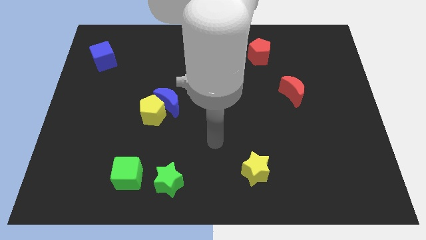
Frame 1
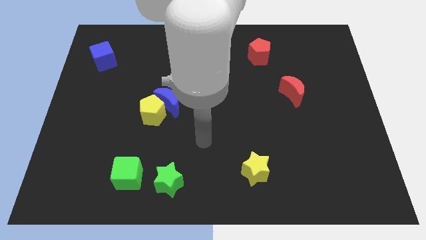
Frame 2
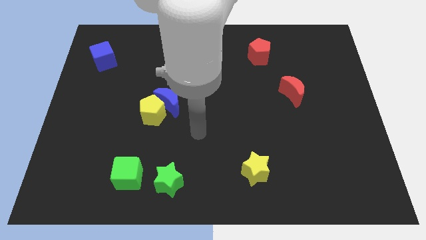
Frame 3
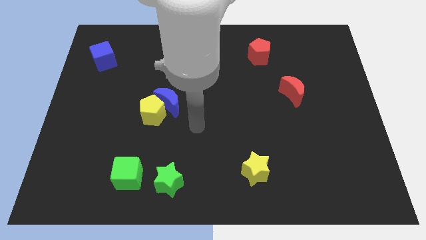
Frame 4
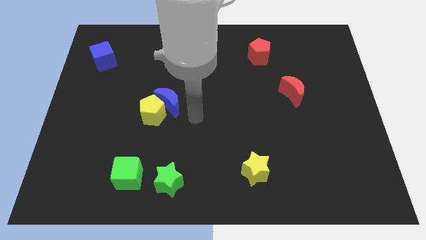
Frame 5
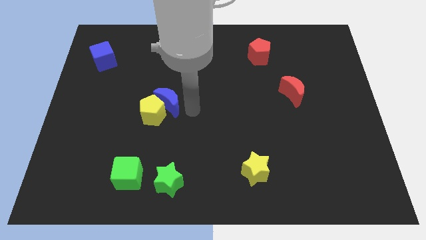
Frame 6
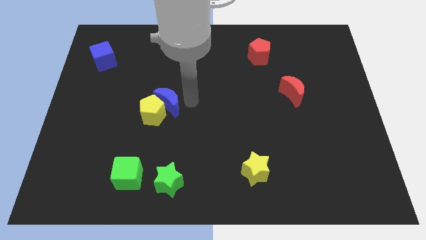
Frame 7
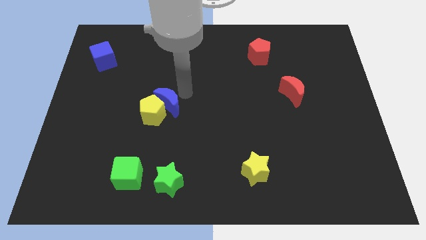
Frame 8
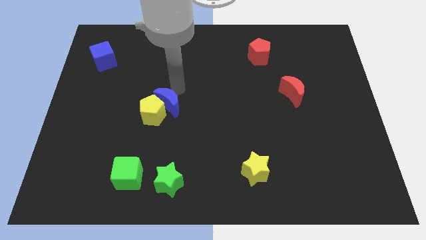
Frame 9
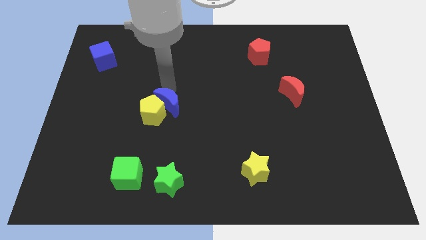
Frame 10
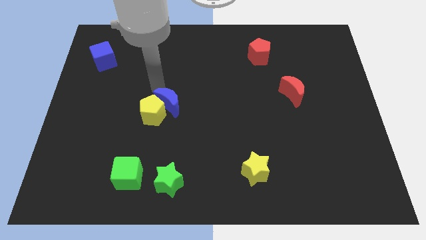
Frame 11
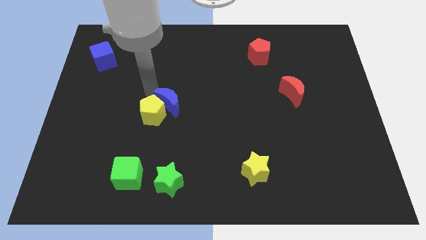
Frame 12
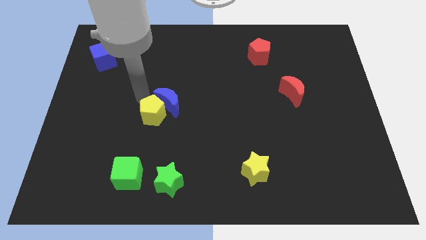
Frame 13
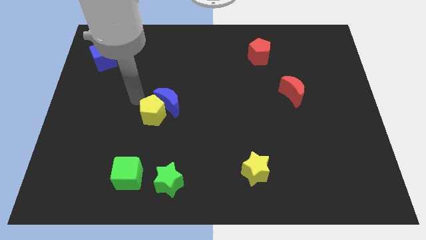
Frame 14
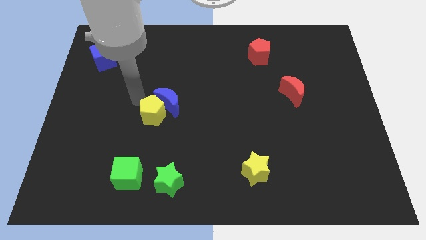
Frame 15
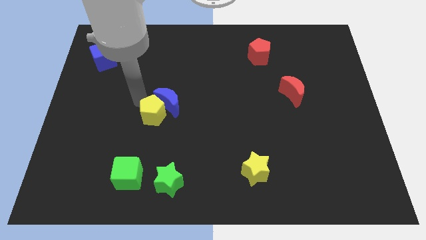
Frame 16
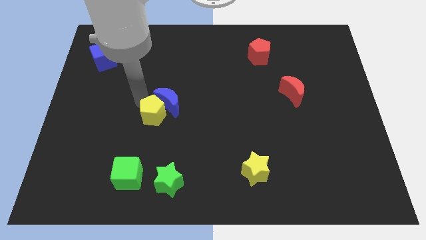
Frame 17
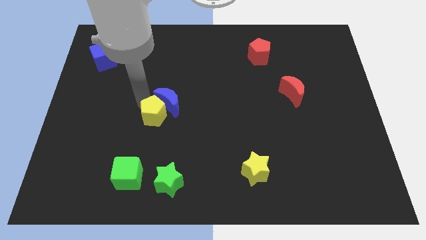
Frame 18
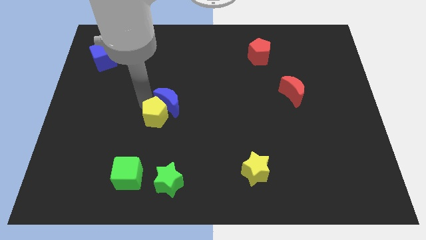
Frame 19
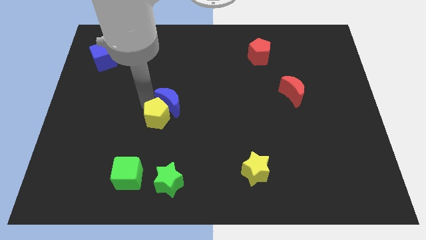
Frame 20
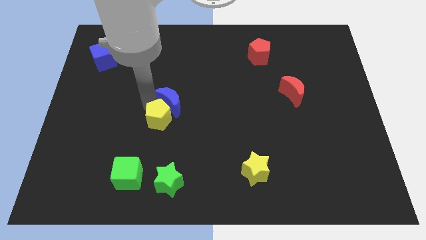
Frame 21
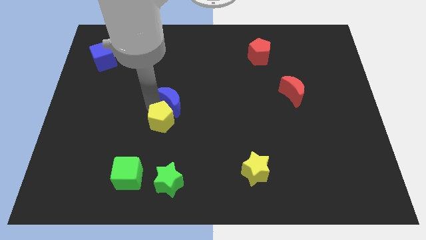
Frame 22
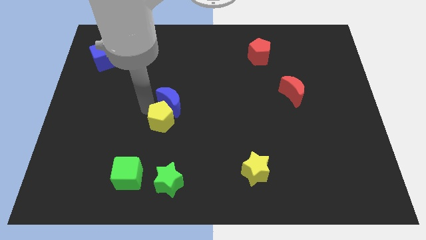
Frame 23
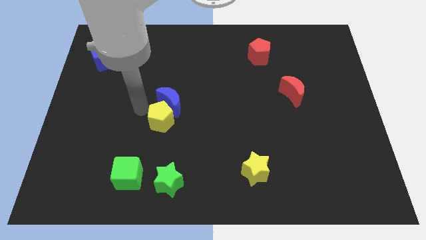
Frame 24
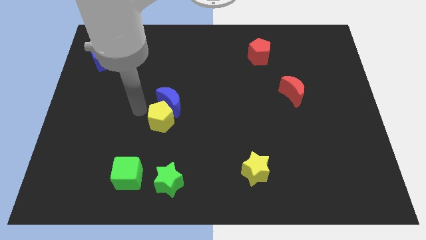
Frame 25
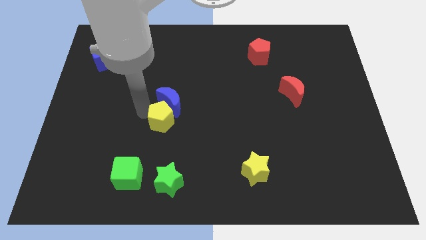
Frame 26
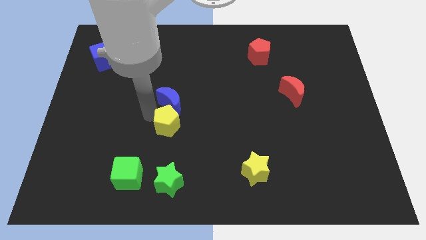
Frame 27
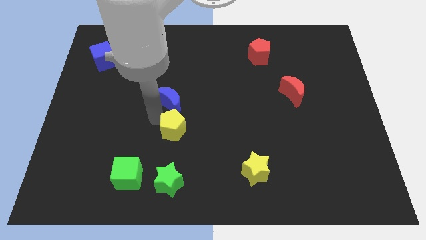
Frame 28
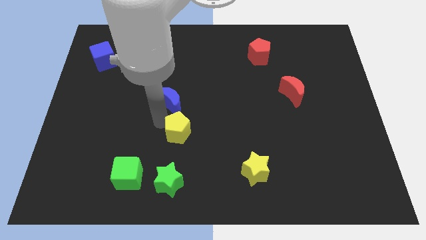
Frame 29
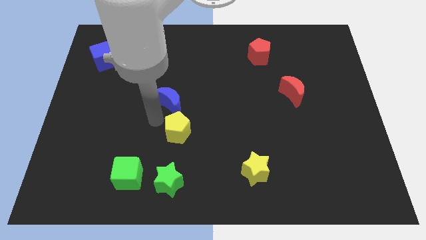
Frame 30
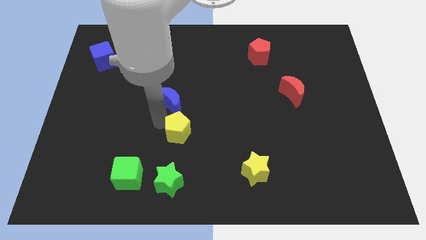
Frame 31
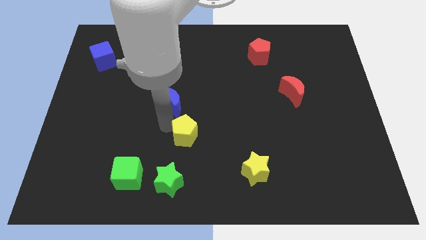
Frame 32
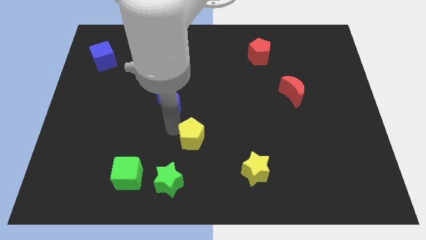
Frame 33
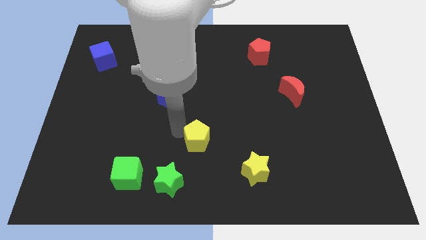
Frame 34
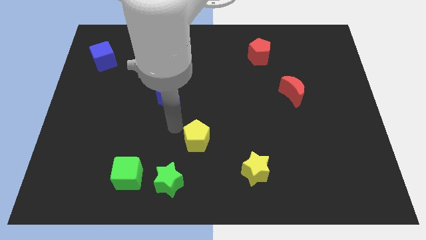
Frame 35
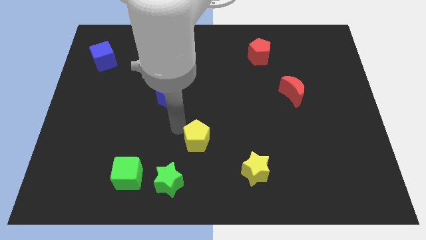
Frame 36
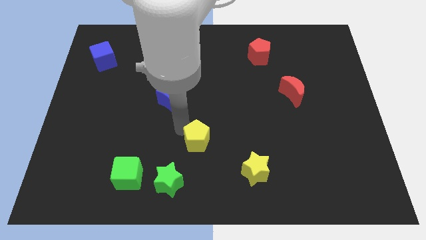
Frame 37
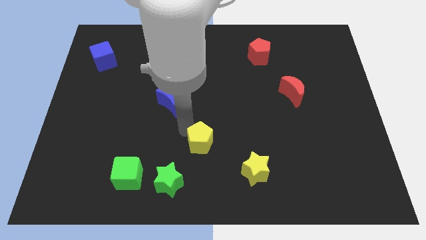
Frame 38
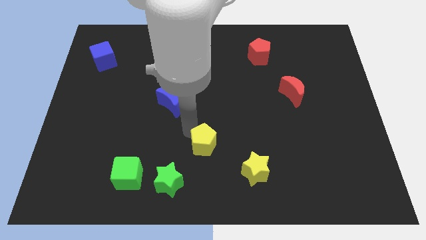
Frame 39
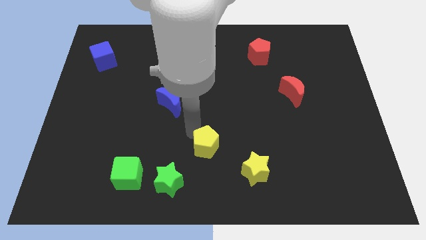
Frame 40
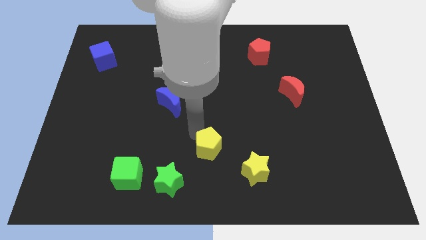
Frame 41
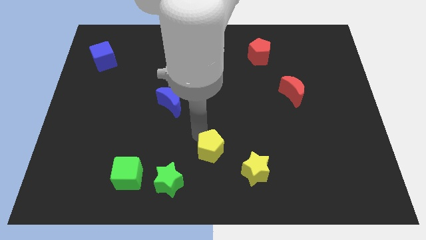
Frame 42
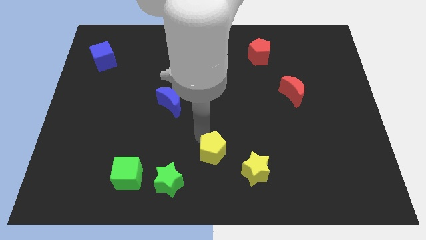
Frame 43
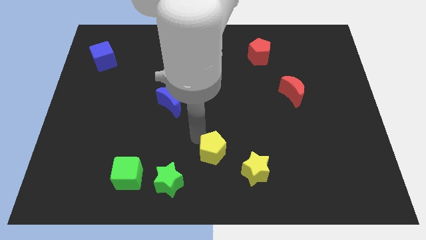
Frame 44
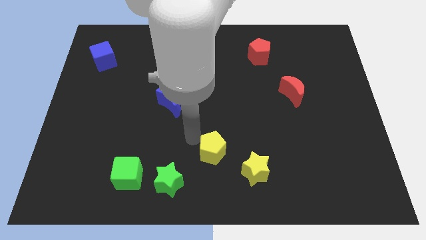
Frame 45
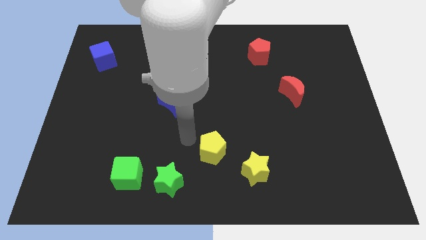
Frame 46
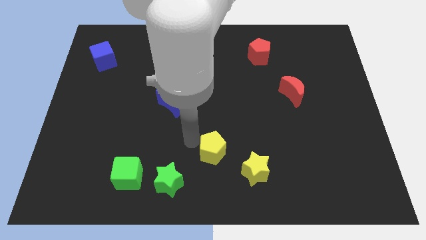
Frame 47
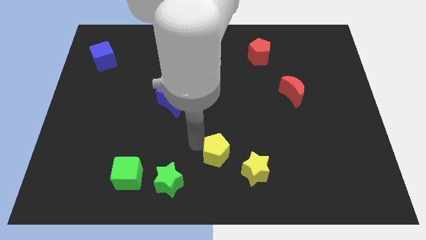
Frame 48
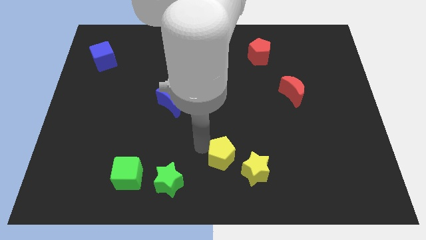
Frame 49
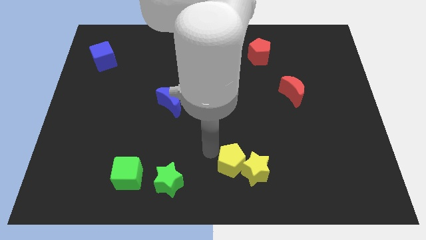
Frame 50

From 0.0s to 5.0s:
push the yellow pentagon to the yellow star

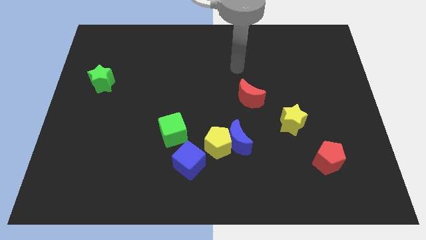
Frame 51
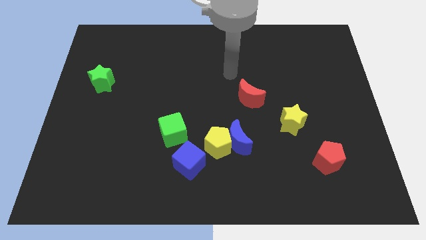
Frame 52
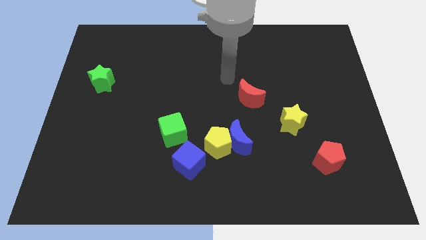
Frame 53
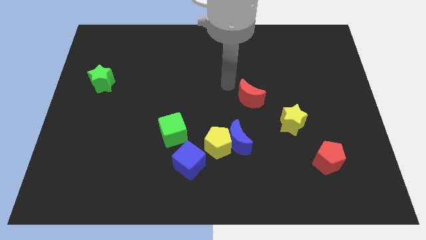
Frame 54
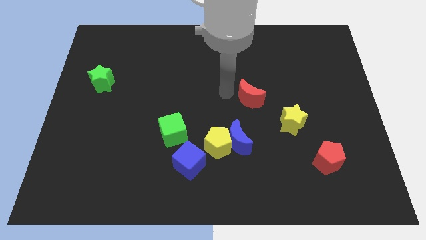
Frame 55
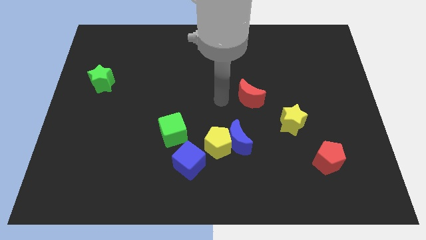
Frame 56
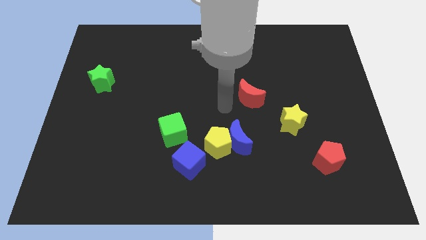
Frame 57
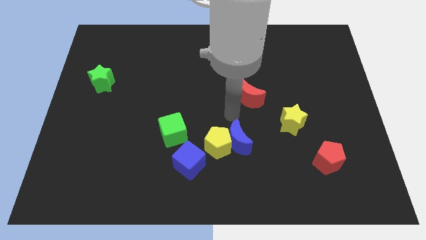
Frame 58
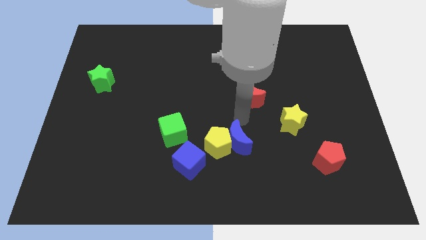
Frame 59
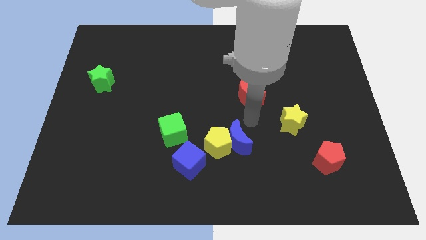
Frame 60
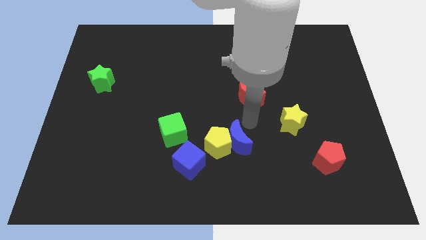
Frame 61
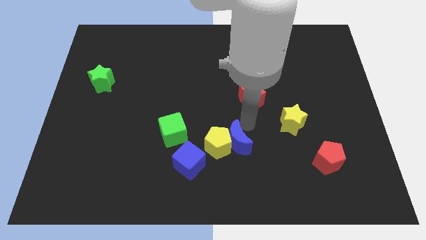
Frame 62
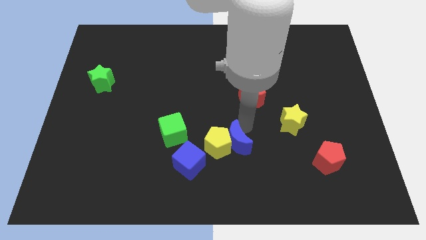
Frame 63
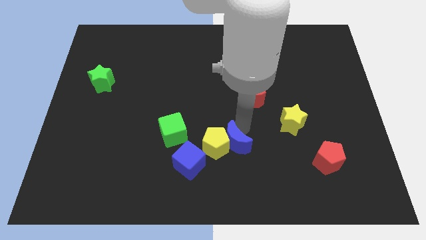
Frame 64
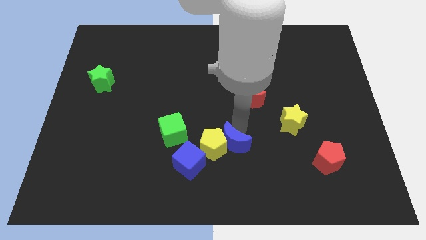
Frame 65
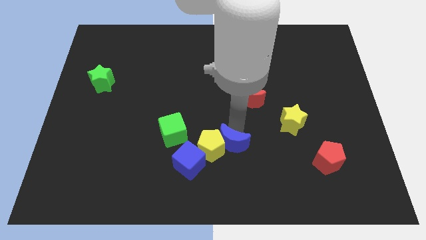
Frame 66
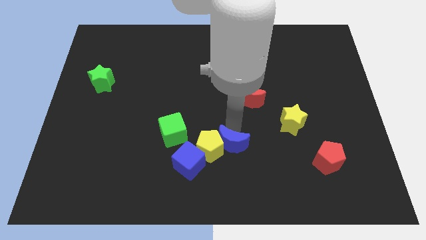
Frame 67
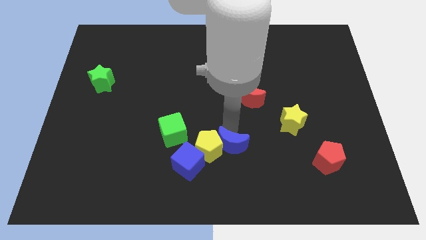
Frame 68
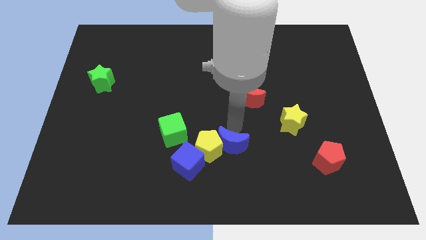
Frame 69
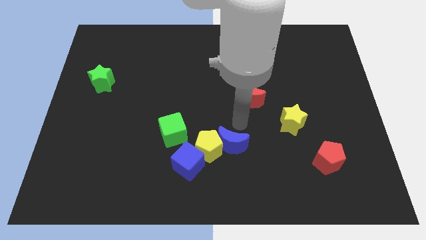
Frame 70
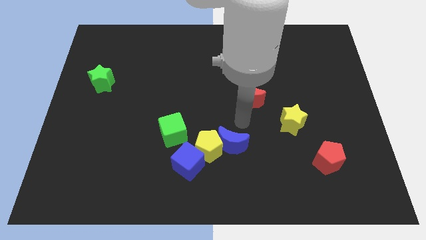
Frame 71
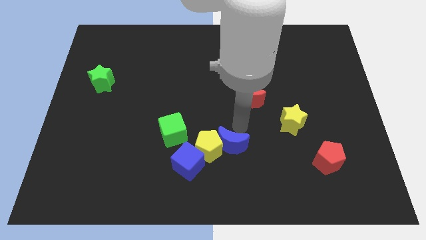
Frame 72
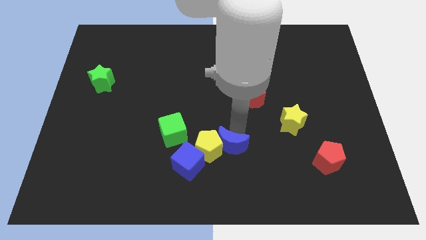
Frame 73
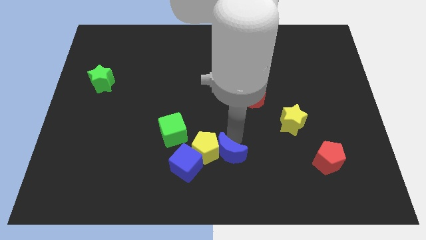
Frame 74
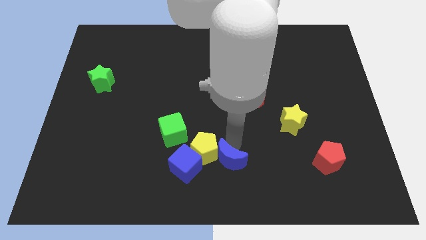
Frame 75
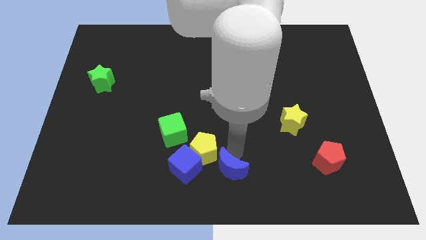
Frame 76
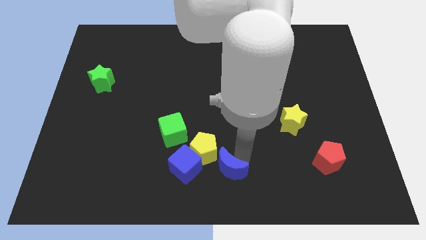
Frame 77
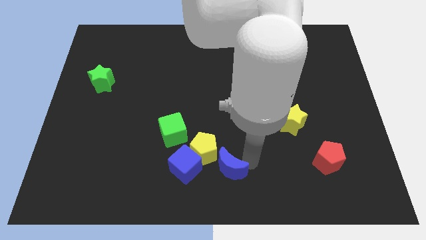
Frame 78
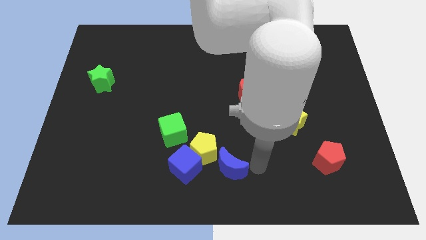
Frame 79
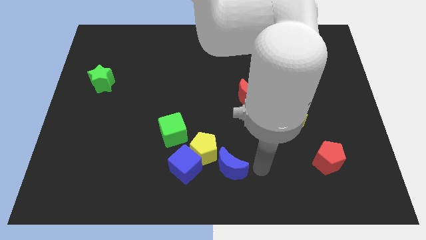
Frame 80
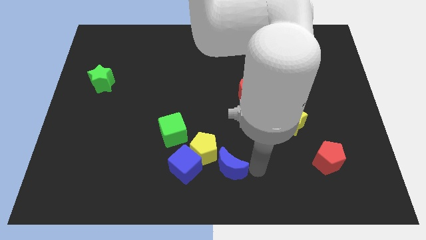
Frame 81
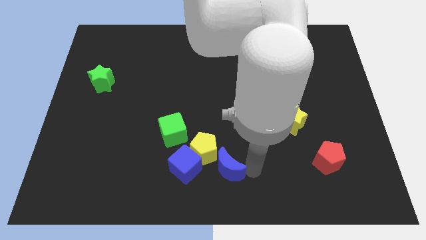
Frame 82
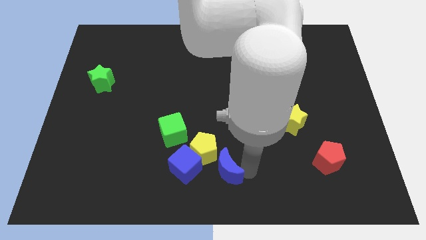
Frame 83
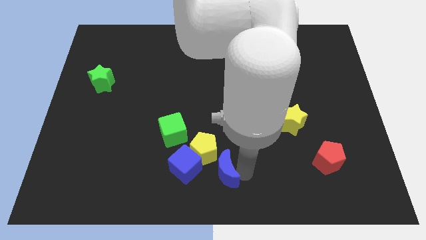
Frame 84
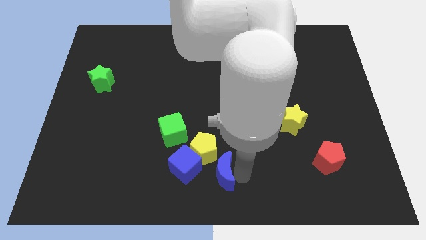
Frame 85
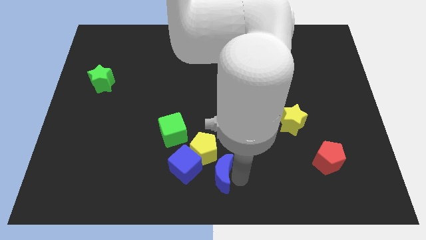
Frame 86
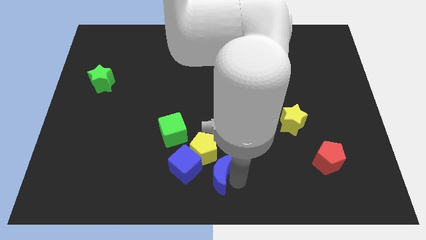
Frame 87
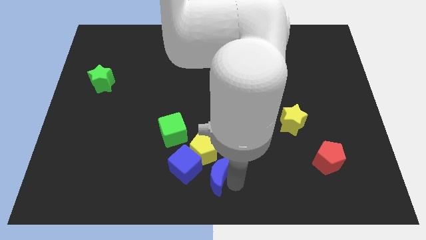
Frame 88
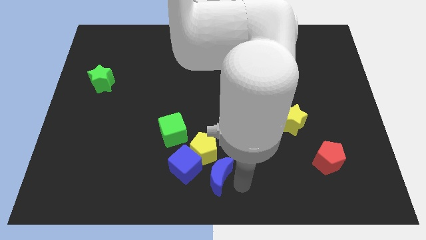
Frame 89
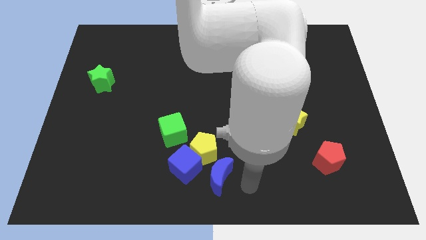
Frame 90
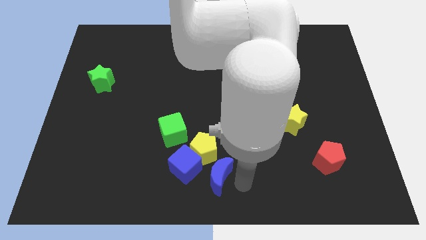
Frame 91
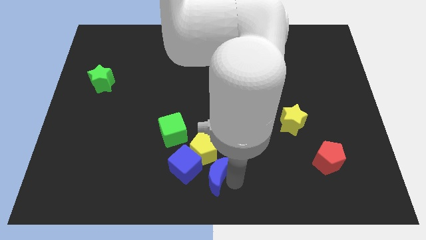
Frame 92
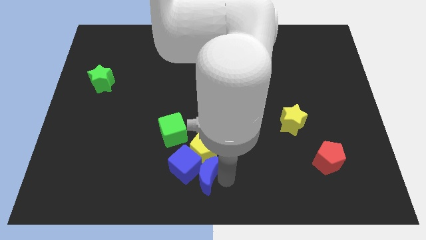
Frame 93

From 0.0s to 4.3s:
put the blue moon towards the blue cube
